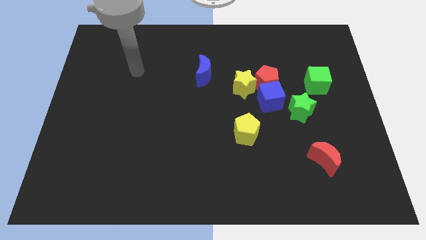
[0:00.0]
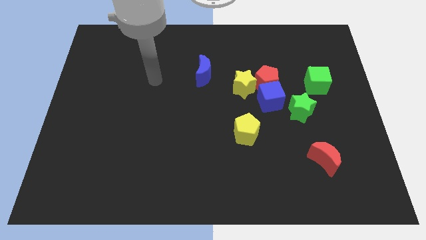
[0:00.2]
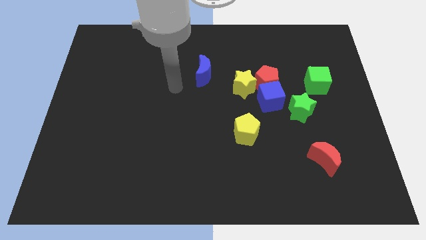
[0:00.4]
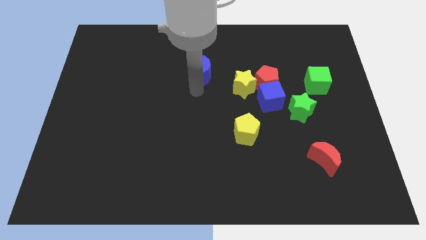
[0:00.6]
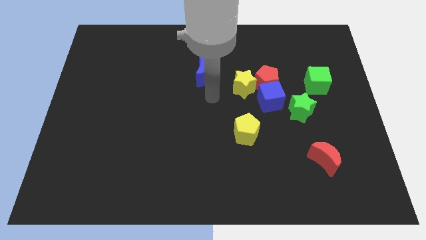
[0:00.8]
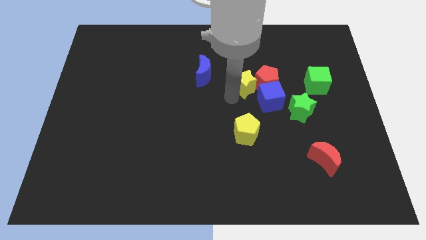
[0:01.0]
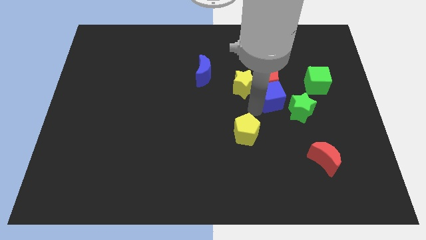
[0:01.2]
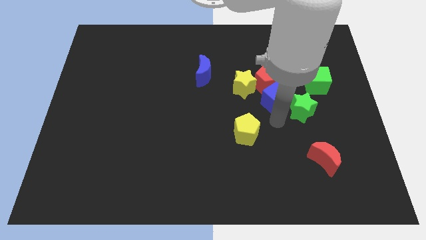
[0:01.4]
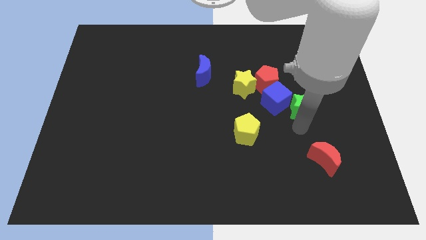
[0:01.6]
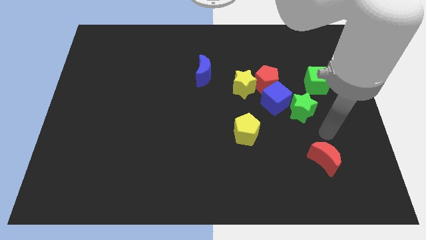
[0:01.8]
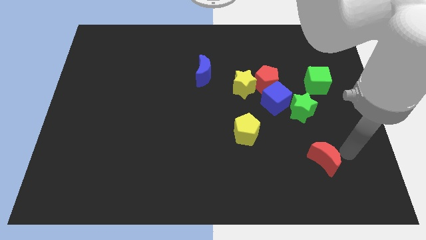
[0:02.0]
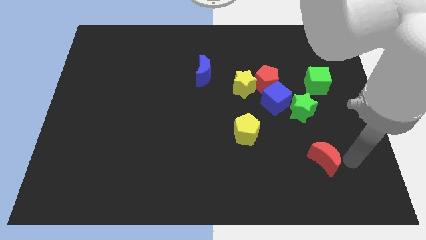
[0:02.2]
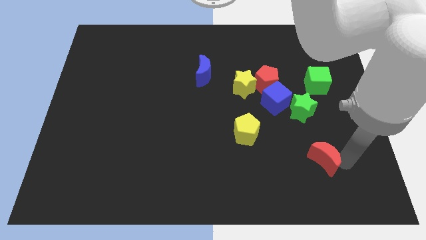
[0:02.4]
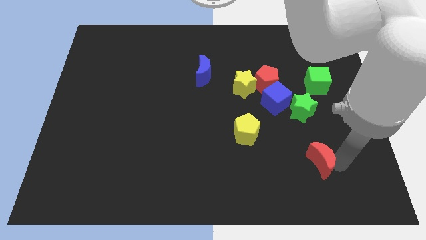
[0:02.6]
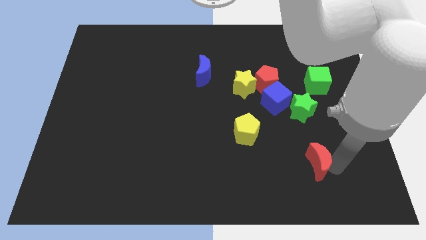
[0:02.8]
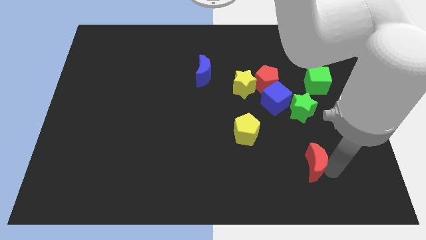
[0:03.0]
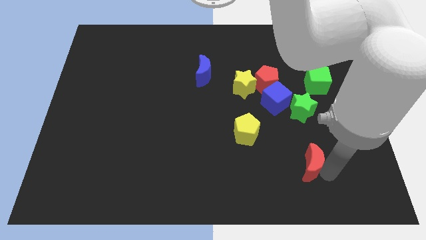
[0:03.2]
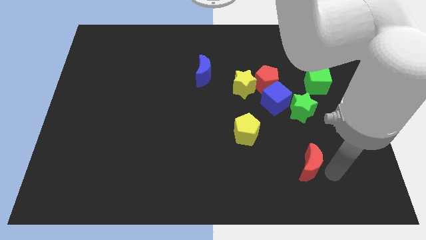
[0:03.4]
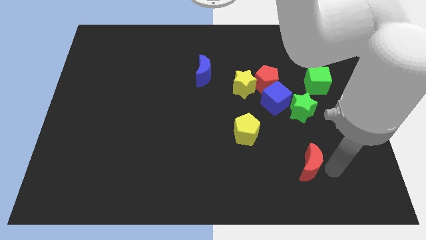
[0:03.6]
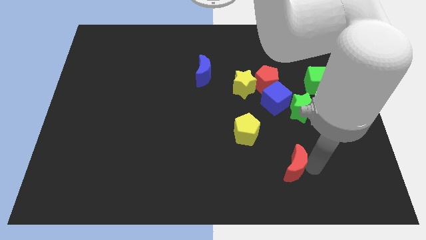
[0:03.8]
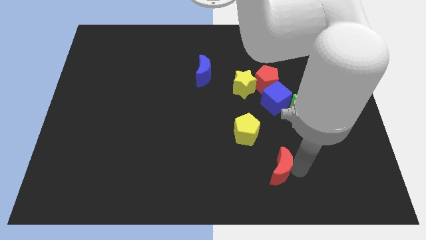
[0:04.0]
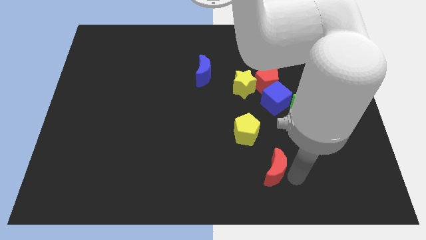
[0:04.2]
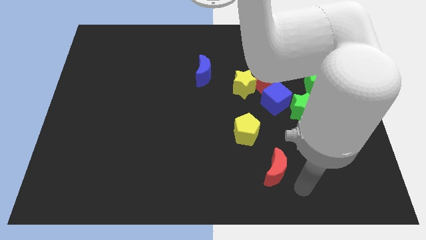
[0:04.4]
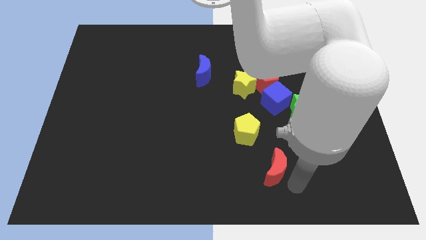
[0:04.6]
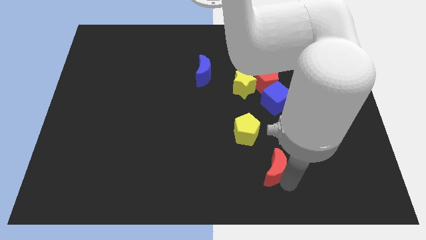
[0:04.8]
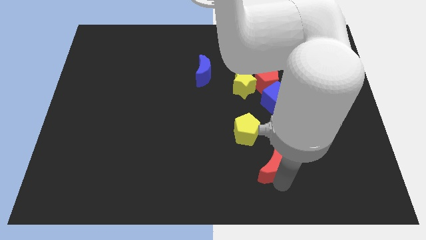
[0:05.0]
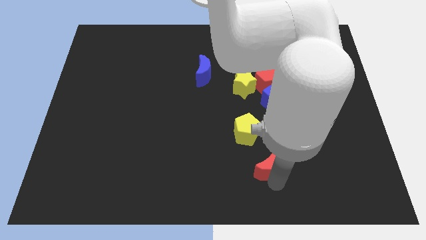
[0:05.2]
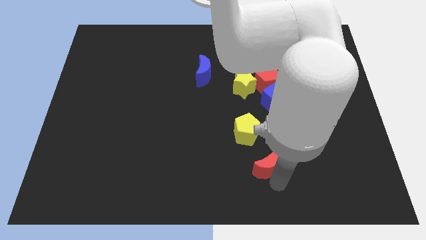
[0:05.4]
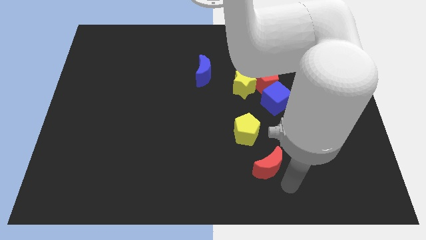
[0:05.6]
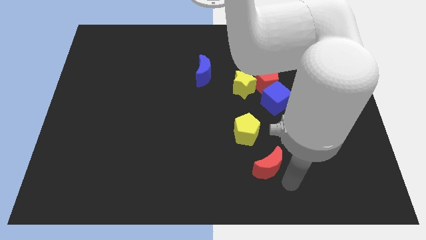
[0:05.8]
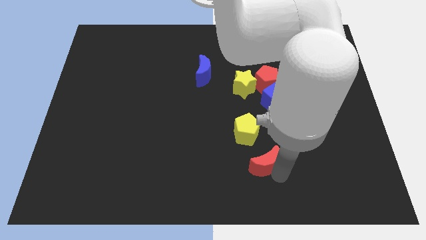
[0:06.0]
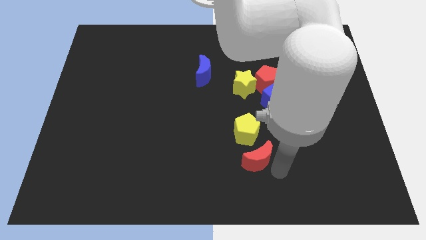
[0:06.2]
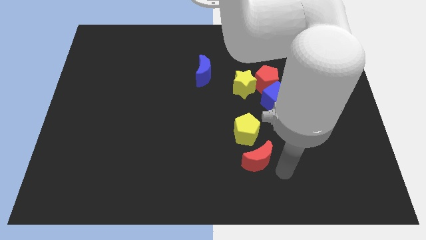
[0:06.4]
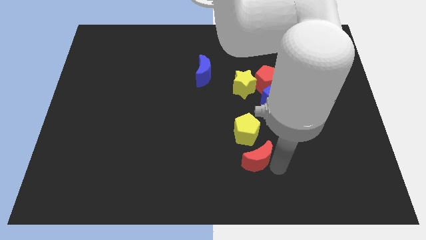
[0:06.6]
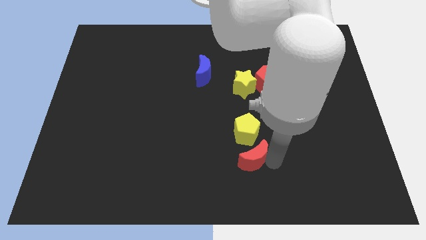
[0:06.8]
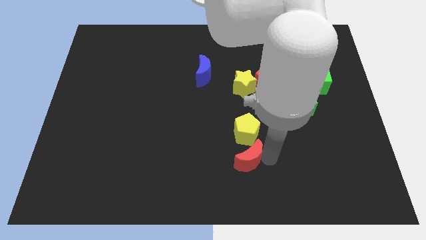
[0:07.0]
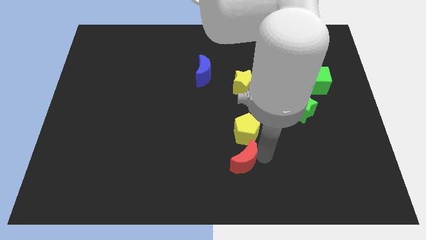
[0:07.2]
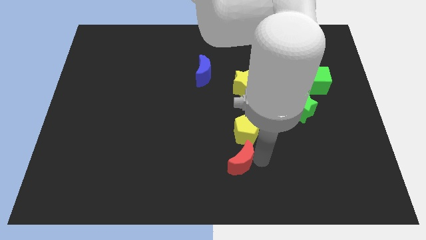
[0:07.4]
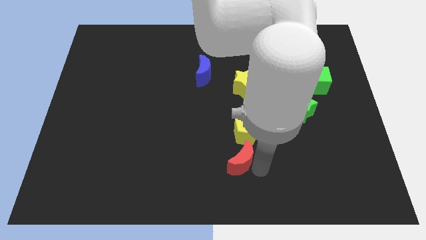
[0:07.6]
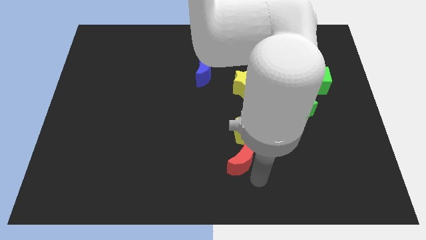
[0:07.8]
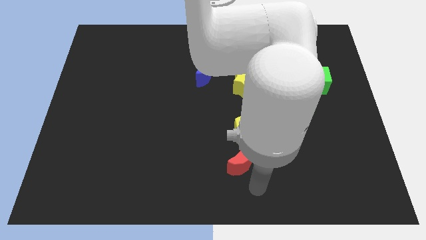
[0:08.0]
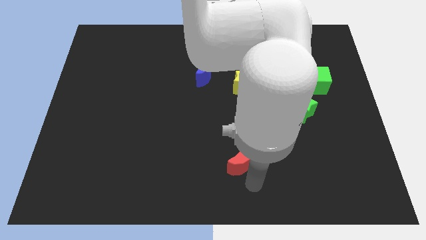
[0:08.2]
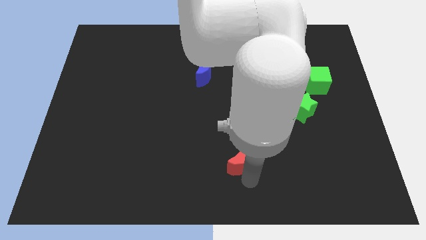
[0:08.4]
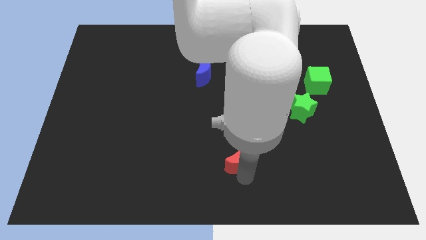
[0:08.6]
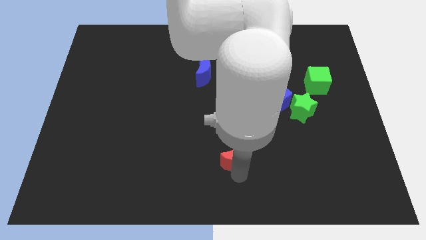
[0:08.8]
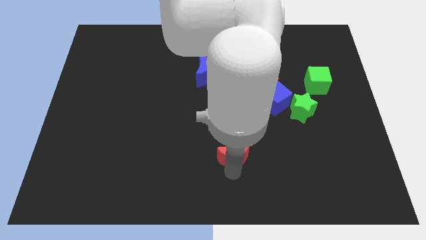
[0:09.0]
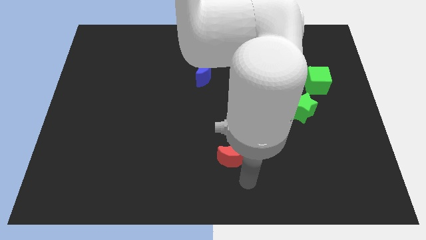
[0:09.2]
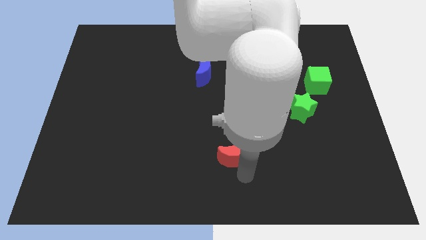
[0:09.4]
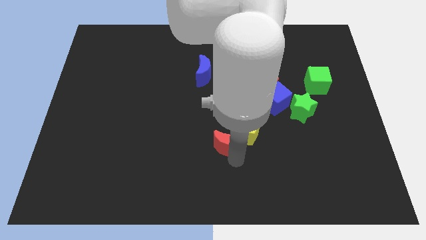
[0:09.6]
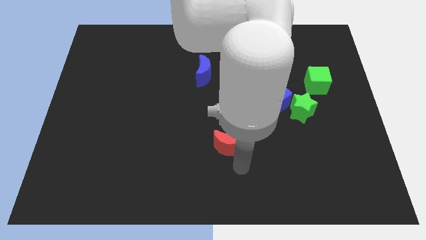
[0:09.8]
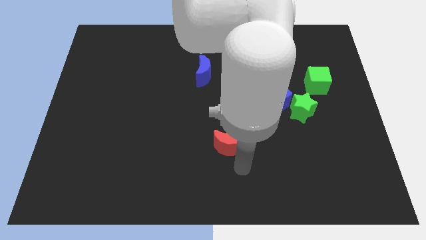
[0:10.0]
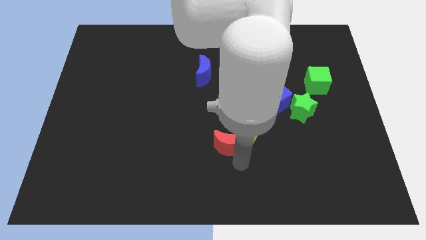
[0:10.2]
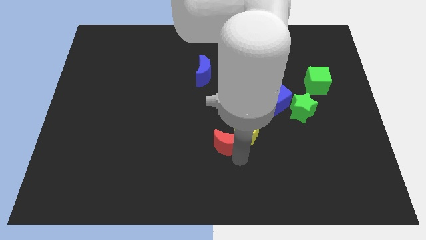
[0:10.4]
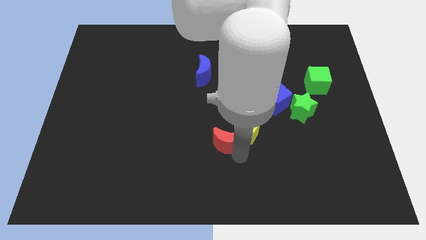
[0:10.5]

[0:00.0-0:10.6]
move the red moon to the middle of the board

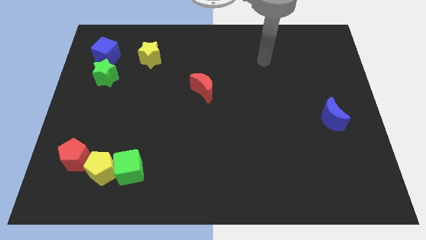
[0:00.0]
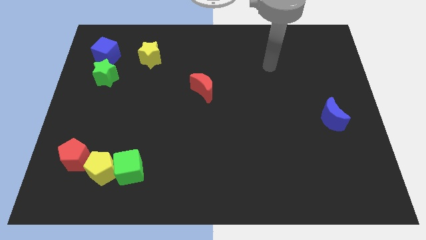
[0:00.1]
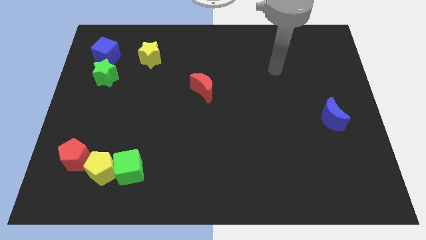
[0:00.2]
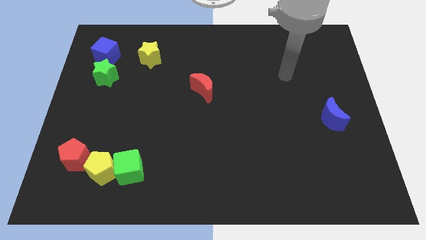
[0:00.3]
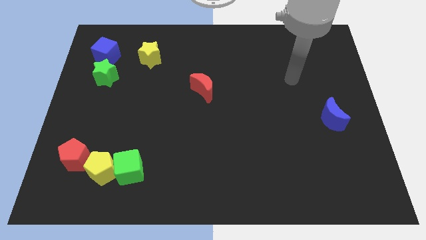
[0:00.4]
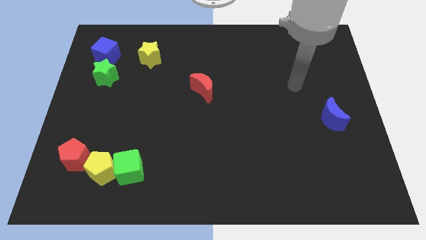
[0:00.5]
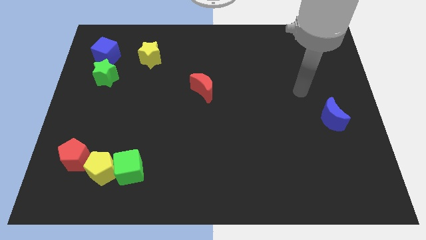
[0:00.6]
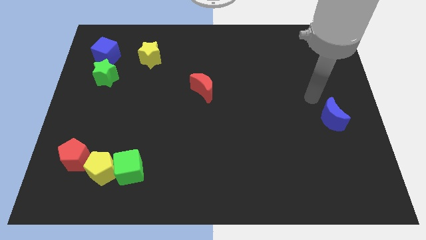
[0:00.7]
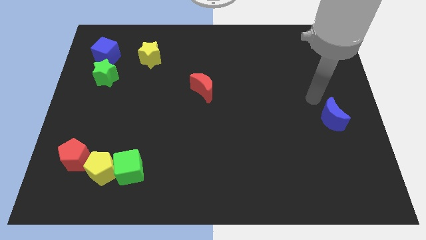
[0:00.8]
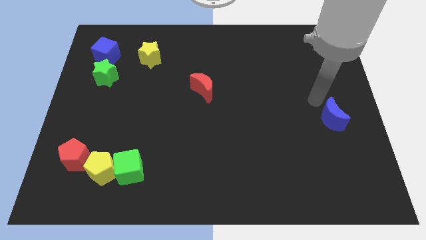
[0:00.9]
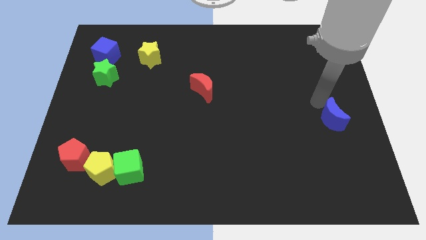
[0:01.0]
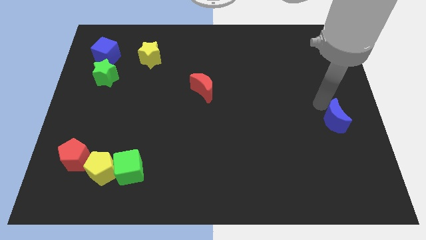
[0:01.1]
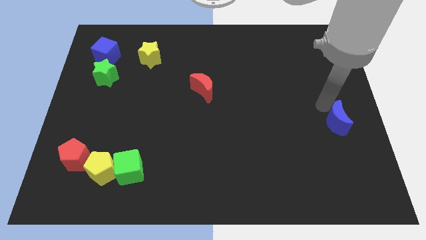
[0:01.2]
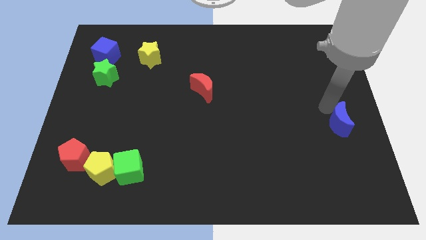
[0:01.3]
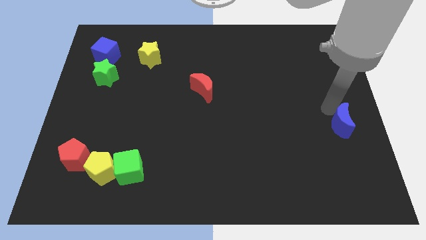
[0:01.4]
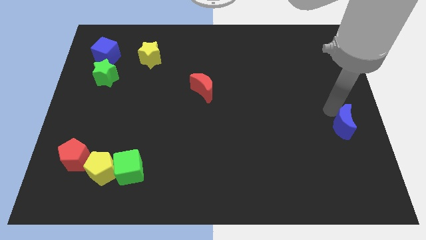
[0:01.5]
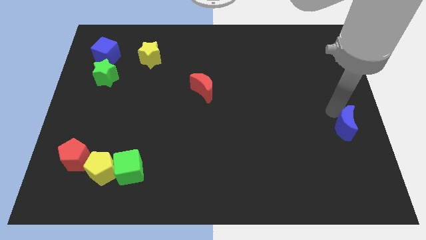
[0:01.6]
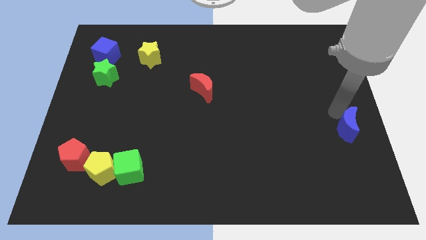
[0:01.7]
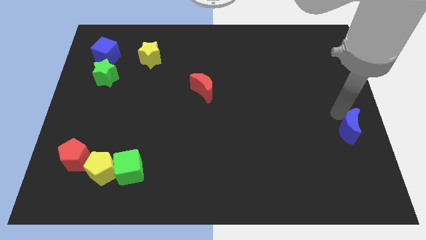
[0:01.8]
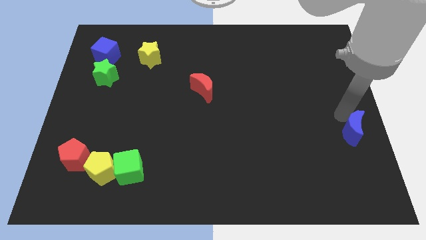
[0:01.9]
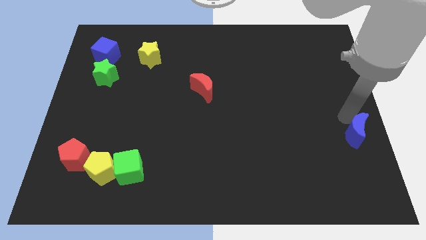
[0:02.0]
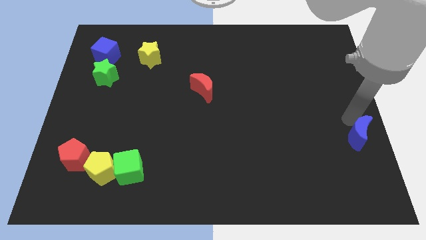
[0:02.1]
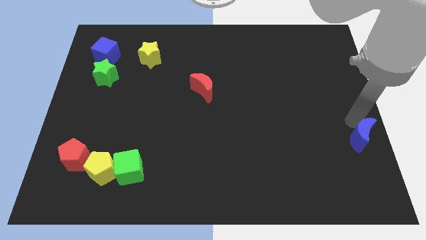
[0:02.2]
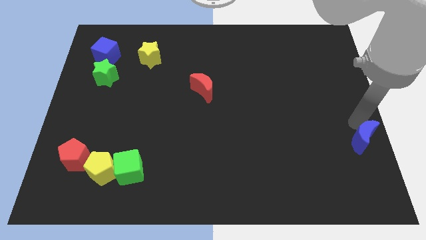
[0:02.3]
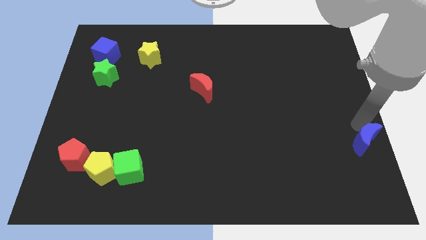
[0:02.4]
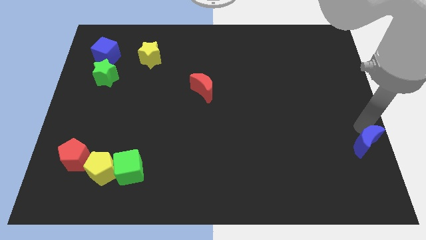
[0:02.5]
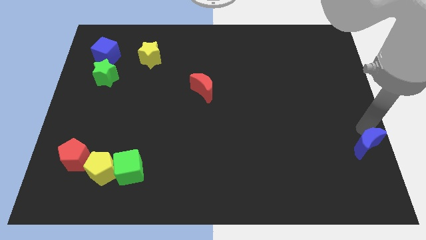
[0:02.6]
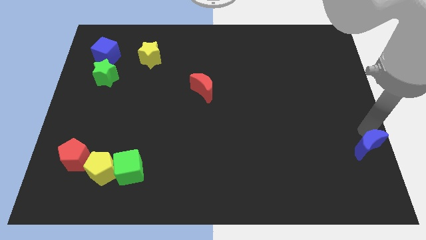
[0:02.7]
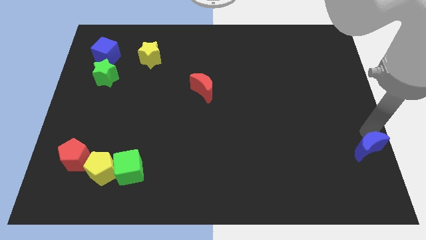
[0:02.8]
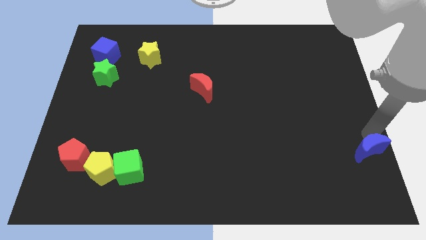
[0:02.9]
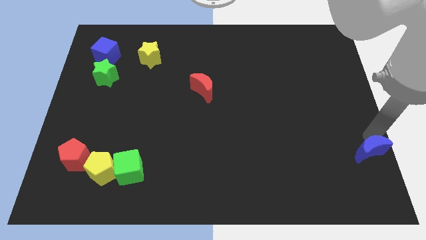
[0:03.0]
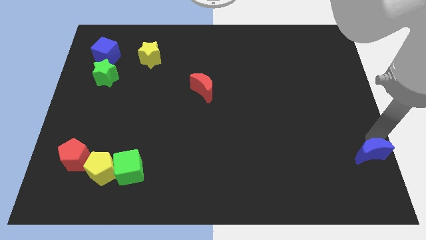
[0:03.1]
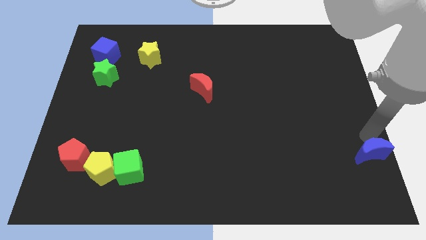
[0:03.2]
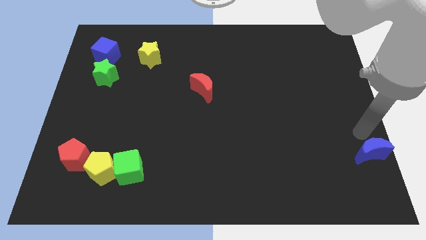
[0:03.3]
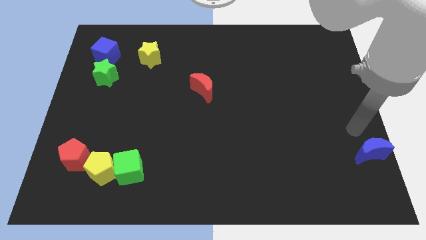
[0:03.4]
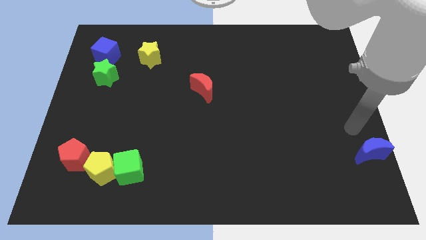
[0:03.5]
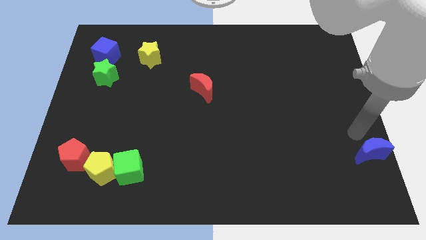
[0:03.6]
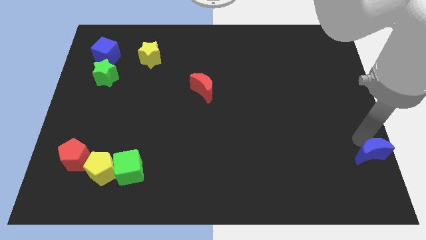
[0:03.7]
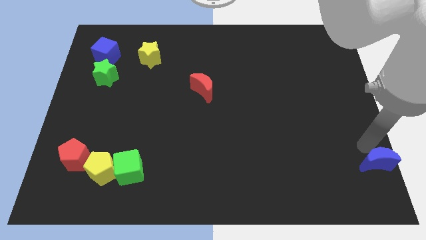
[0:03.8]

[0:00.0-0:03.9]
slide the blue moon to the bottom right of the board
